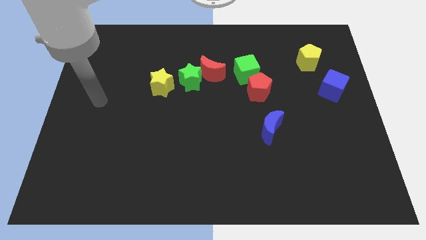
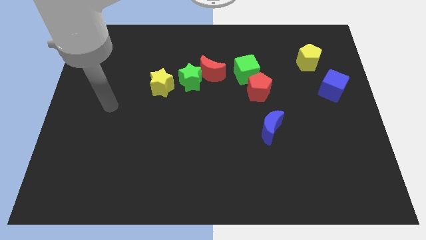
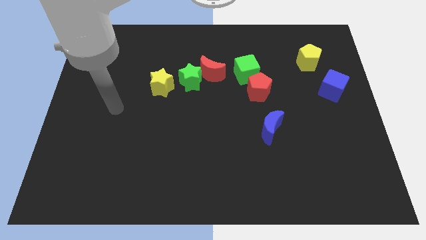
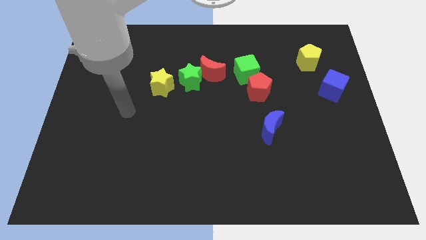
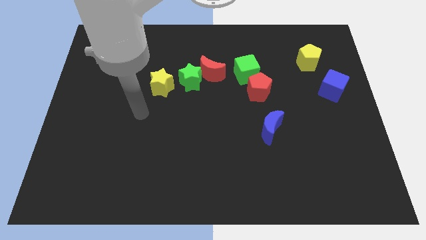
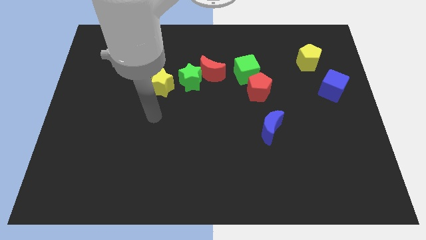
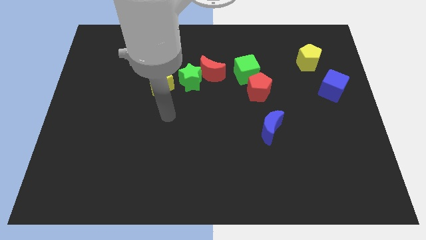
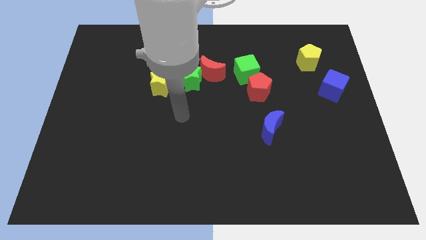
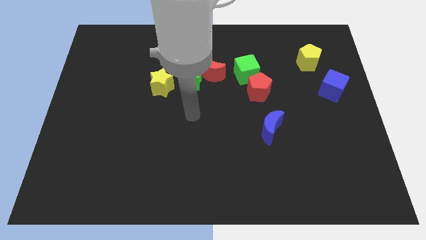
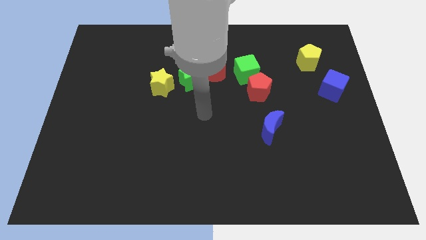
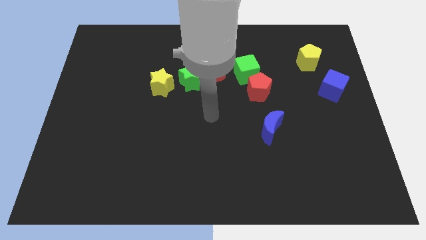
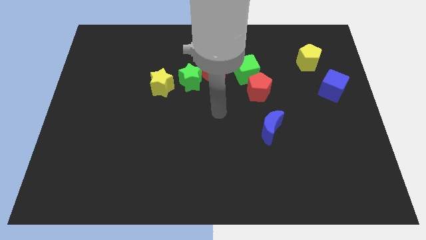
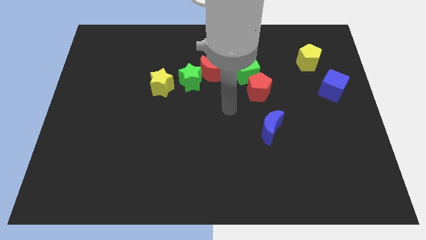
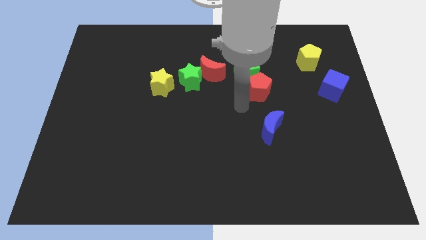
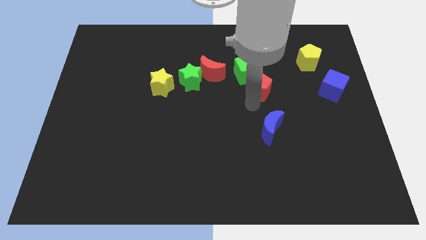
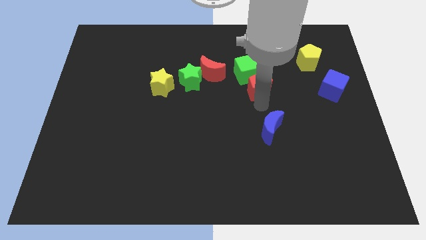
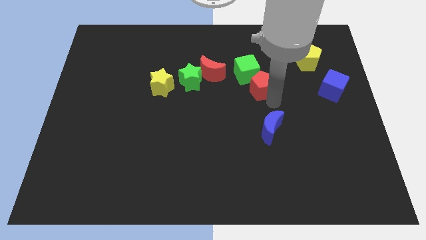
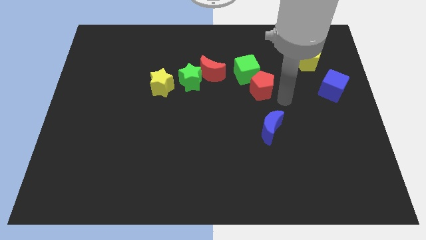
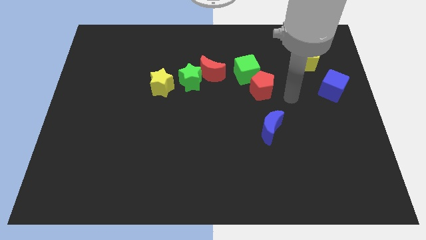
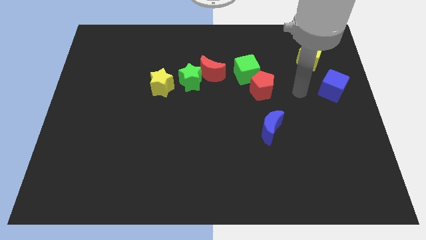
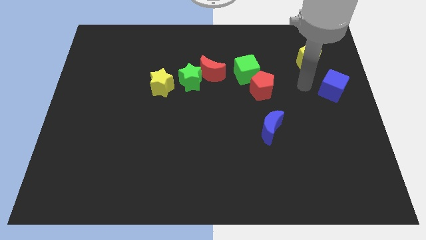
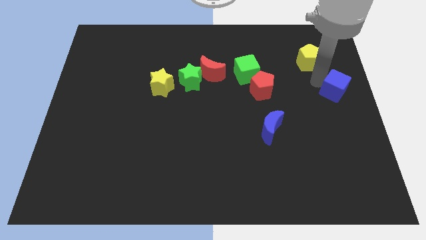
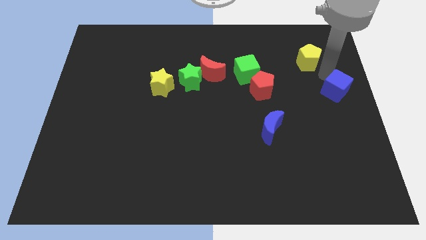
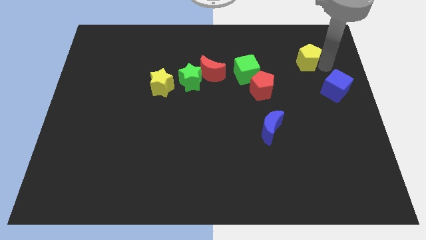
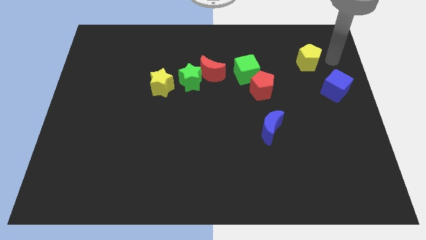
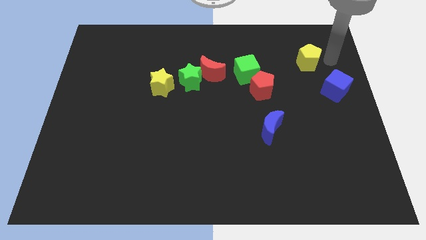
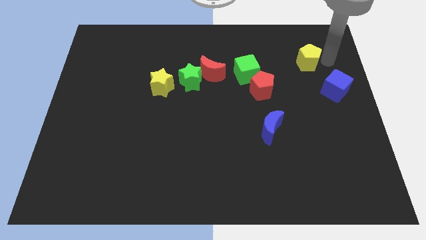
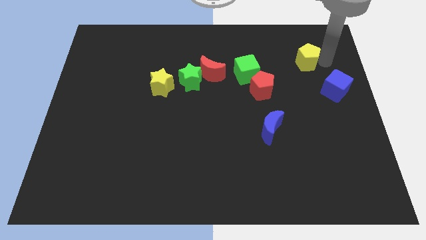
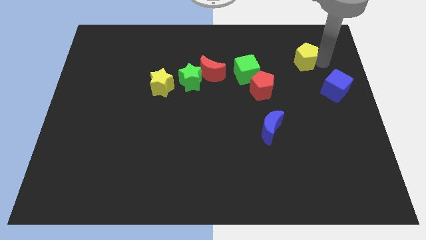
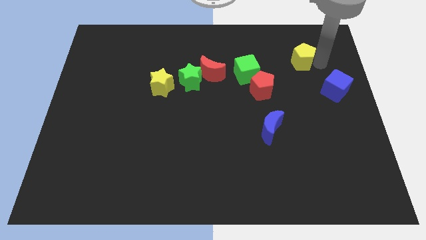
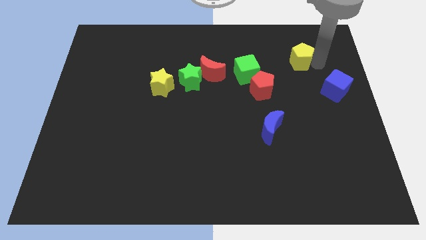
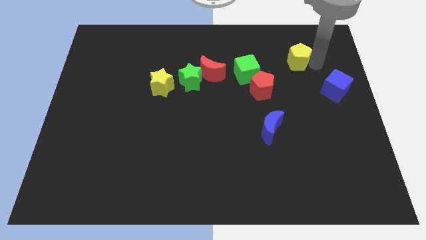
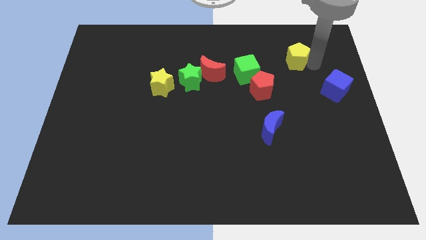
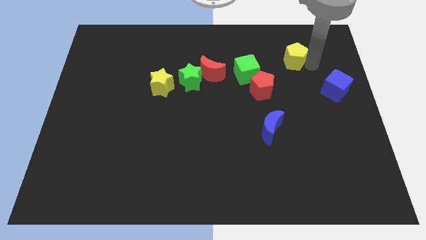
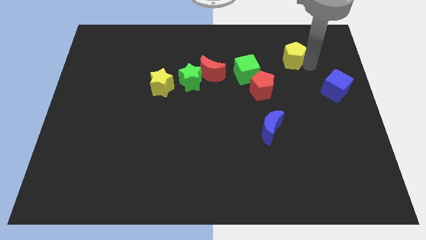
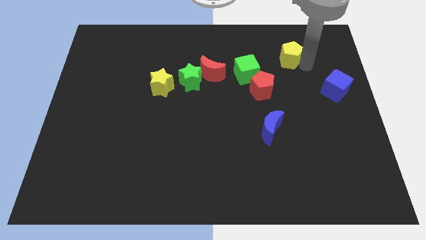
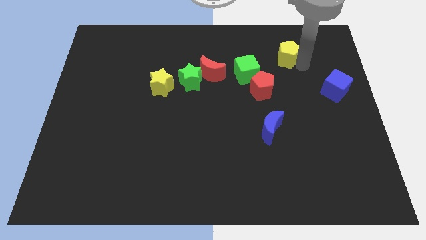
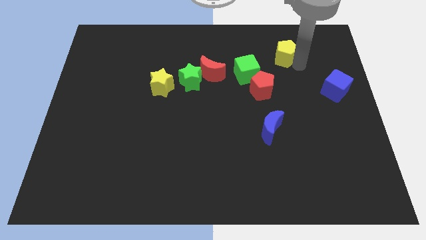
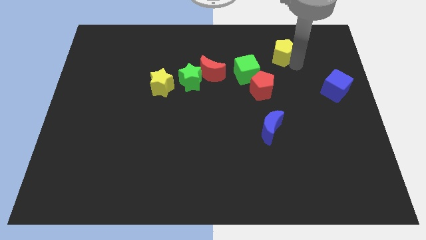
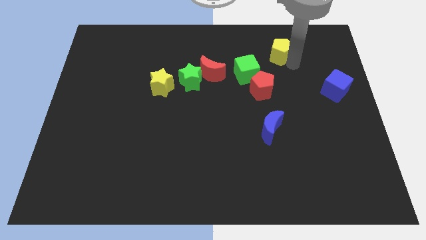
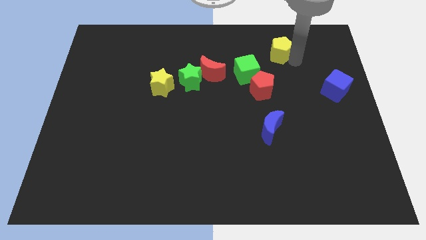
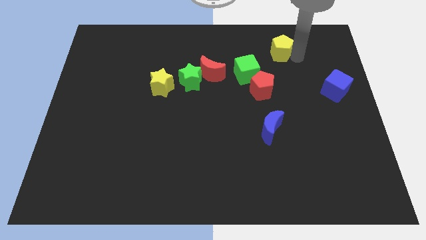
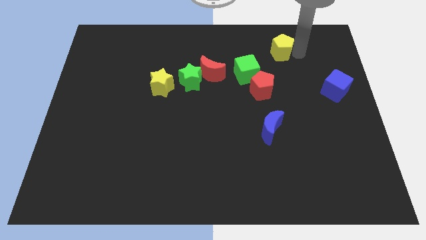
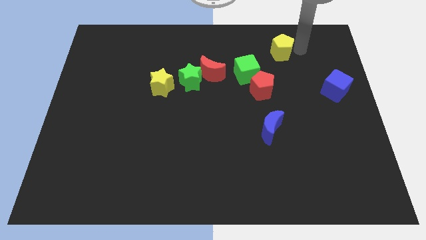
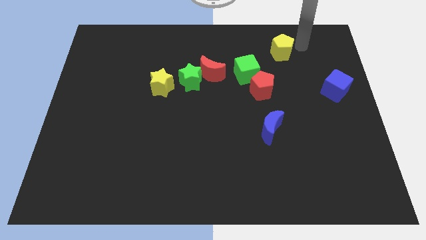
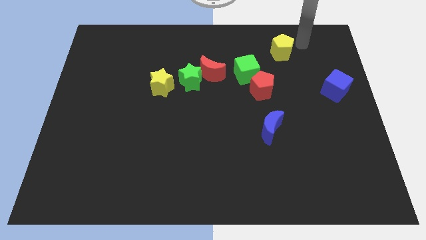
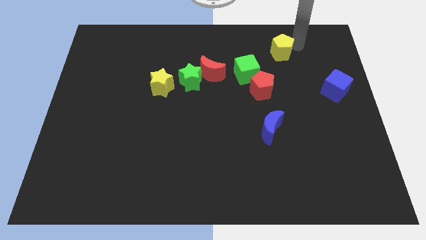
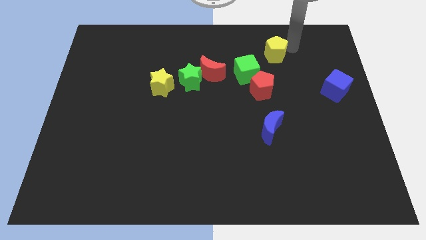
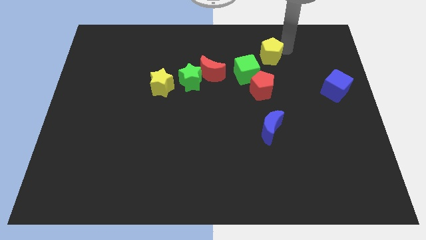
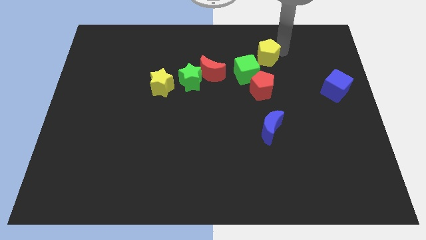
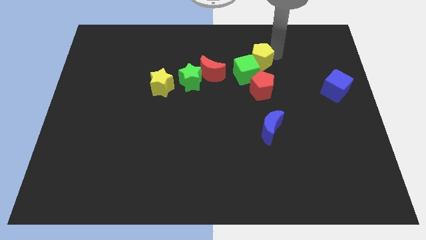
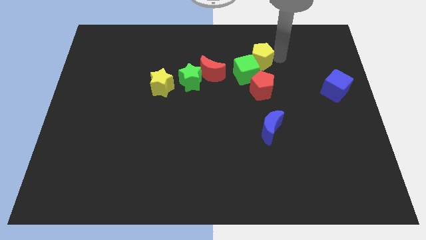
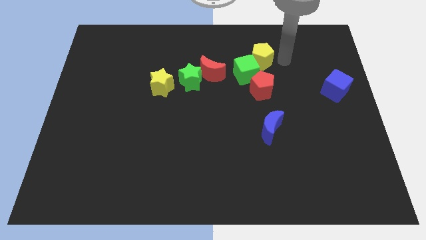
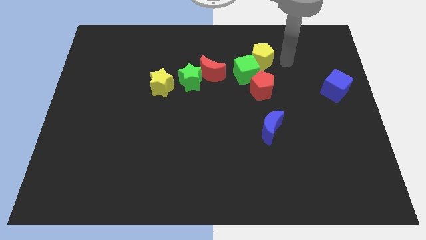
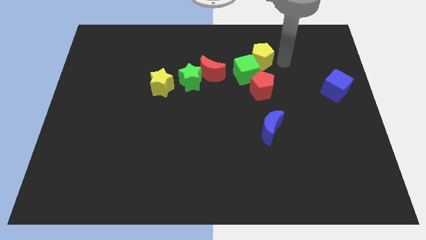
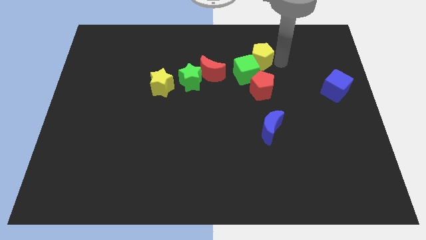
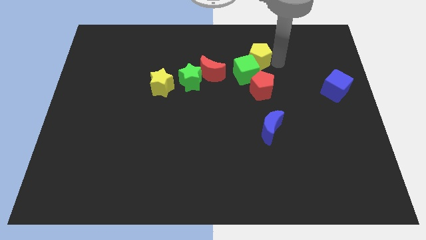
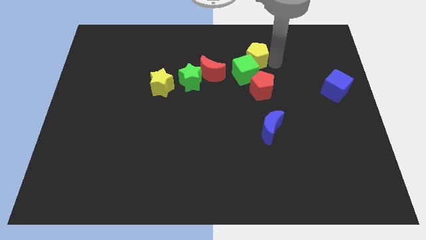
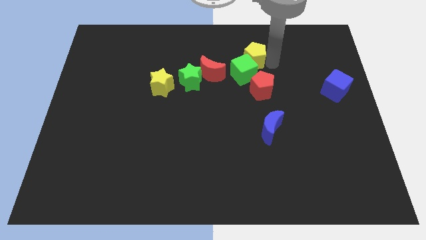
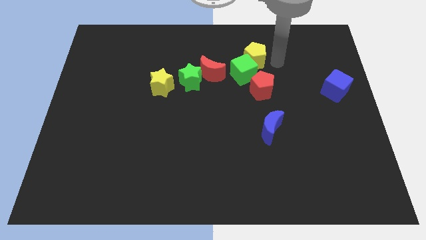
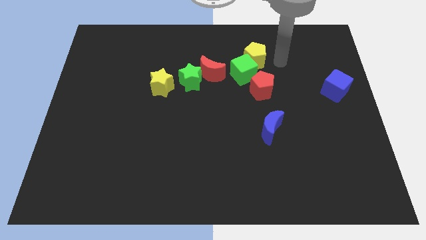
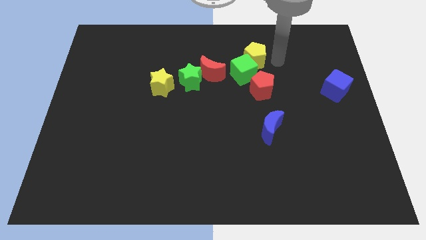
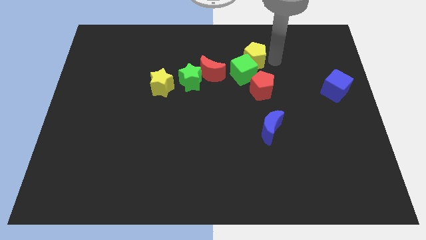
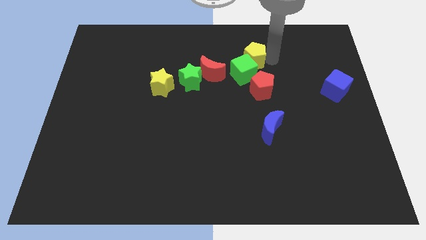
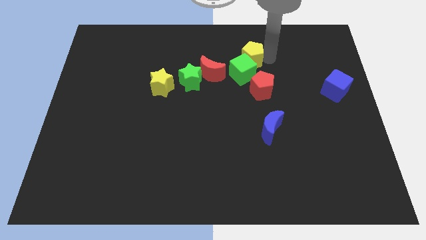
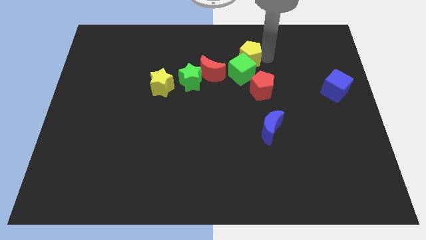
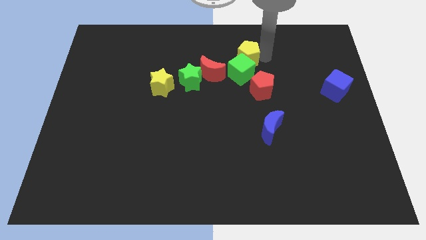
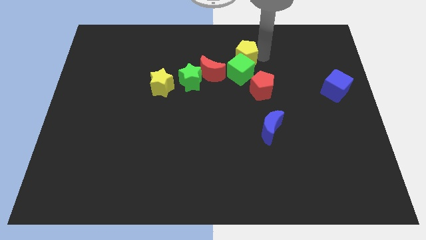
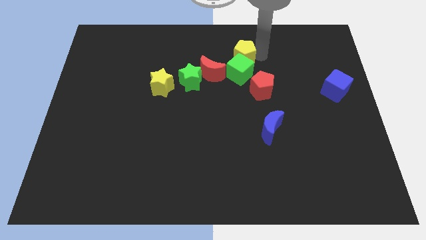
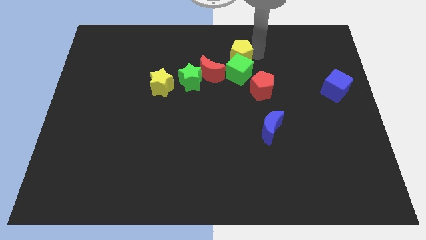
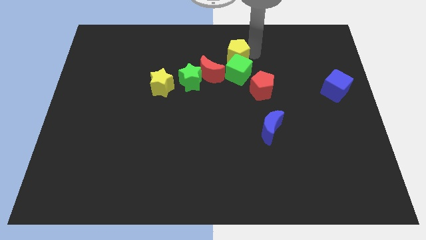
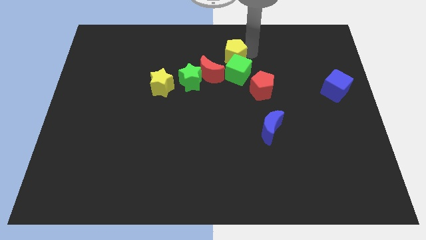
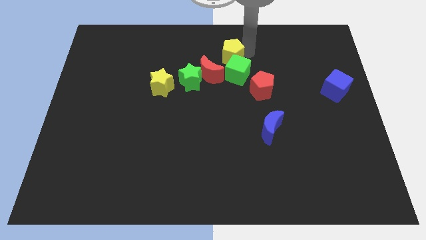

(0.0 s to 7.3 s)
move the yellow pentagon left

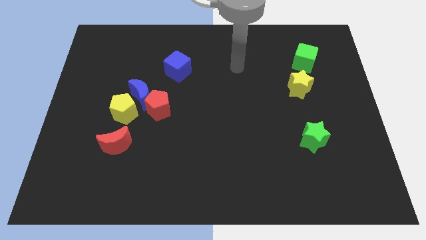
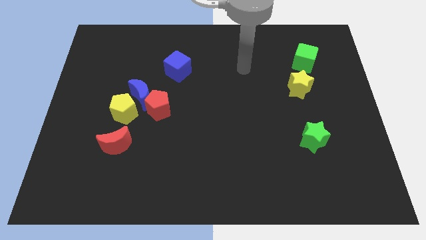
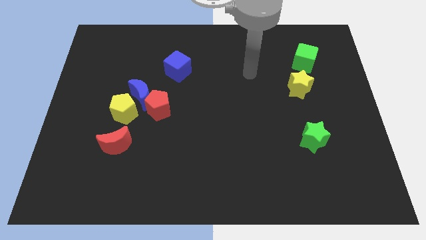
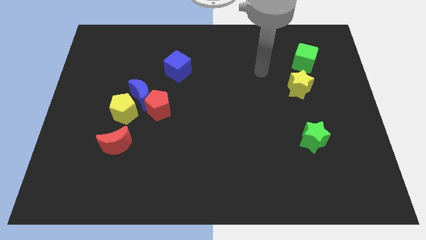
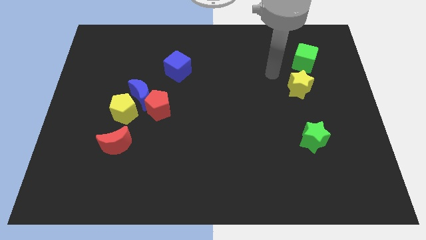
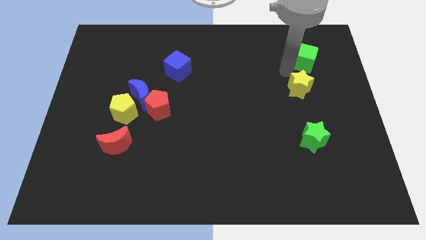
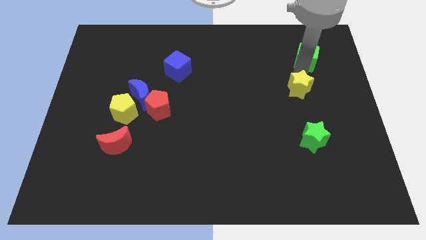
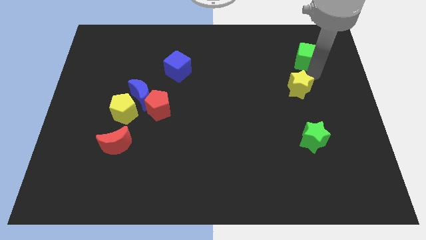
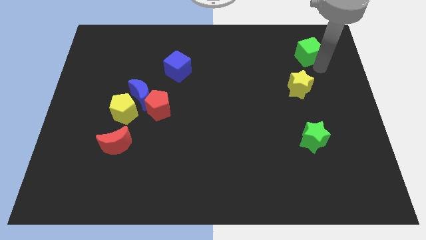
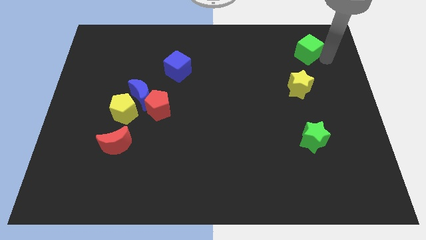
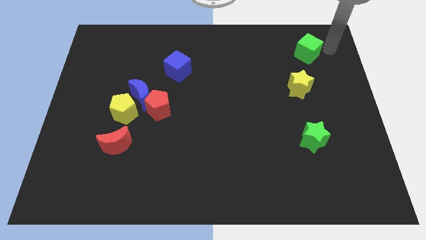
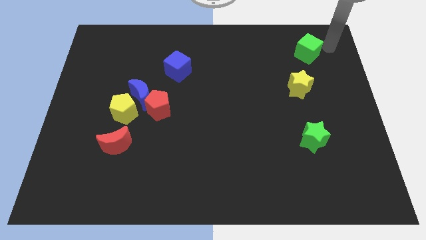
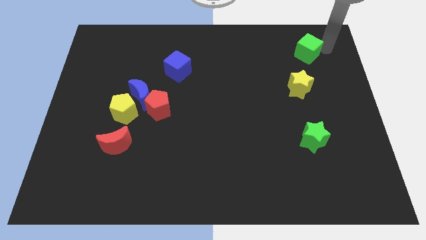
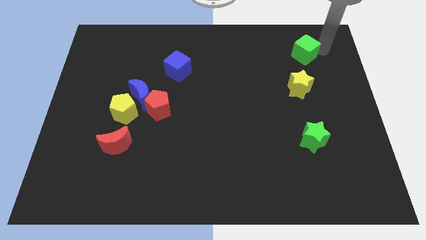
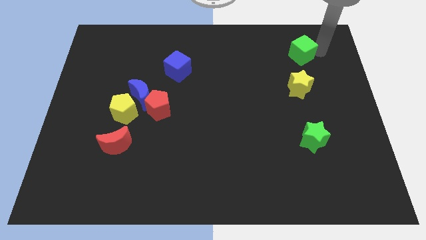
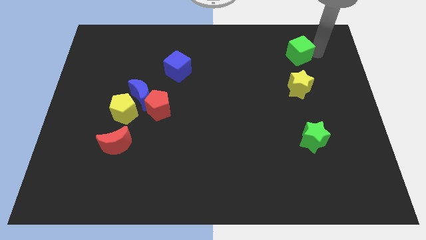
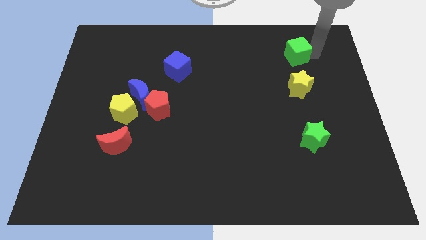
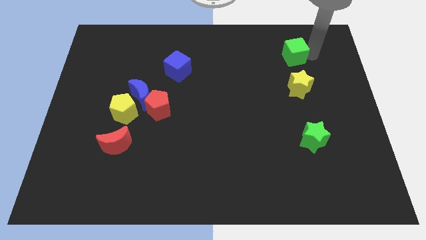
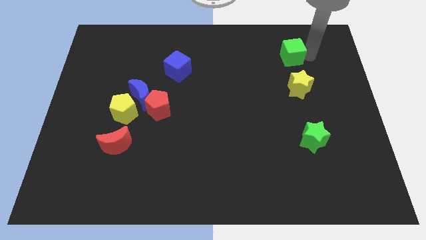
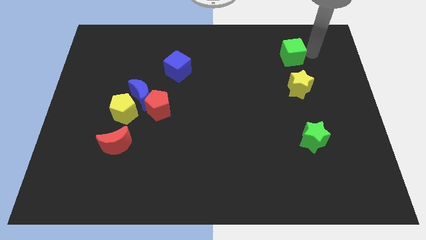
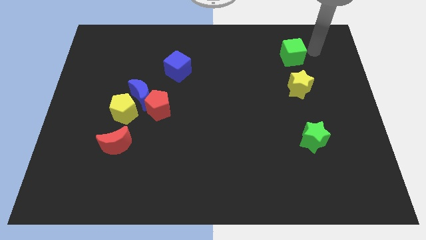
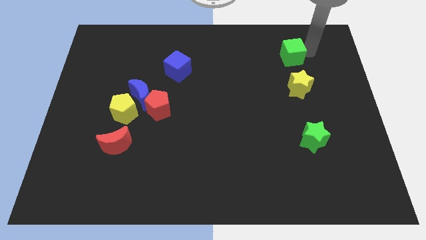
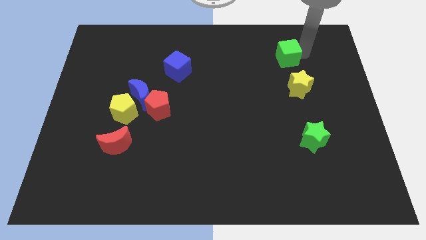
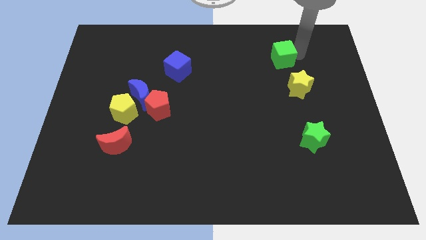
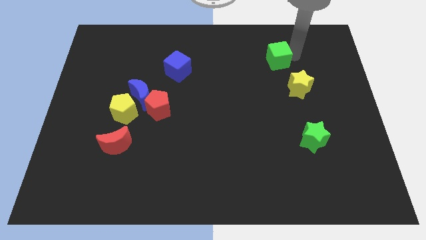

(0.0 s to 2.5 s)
slightly slide the green cube left
